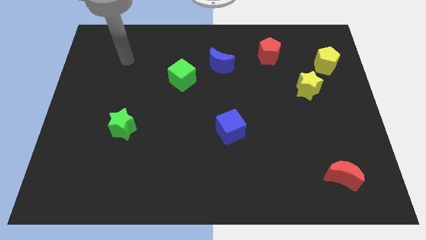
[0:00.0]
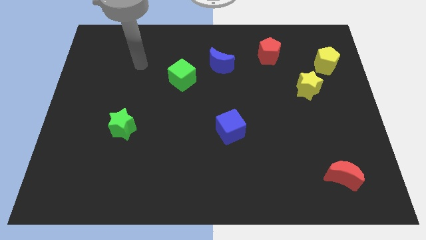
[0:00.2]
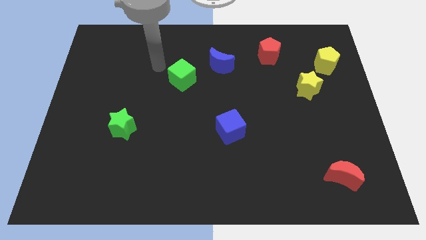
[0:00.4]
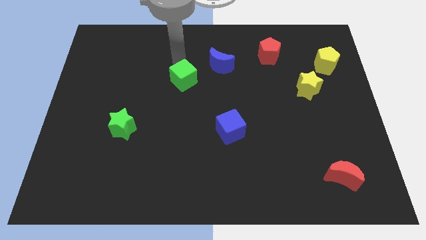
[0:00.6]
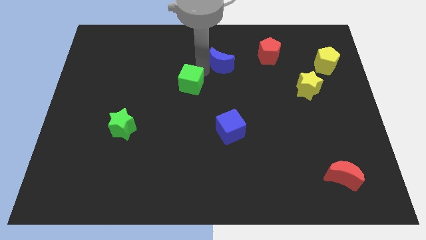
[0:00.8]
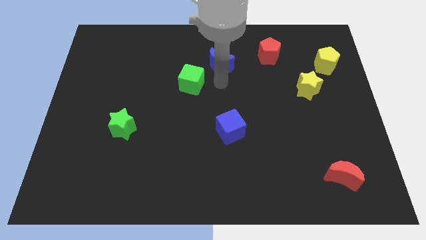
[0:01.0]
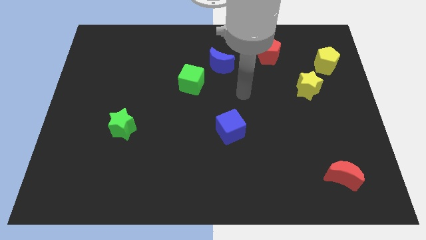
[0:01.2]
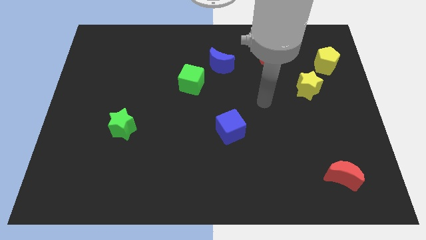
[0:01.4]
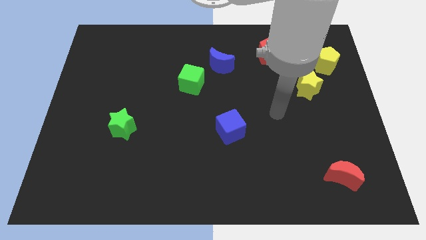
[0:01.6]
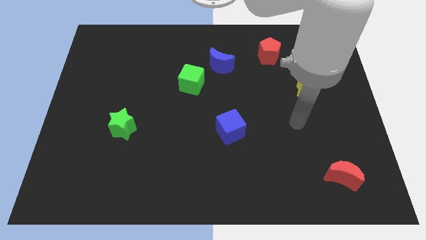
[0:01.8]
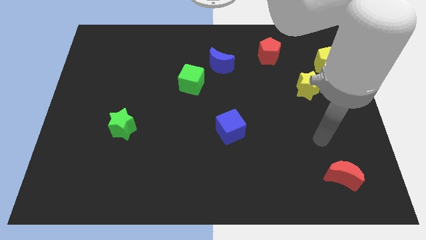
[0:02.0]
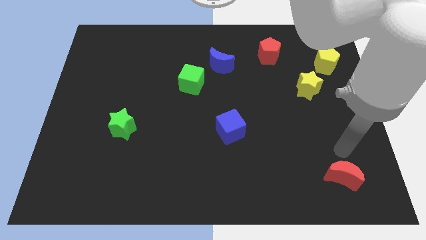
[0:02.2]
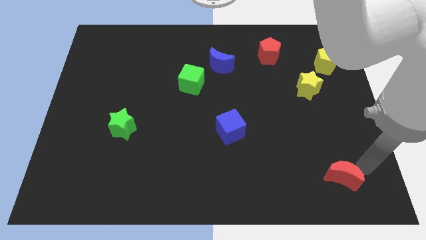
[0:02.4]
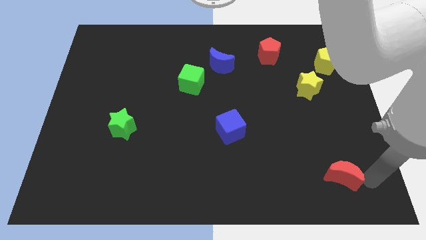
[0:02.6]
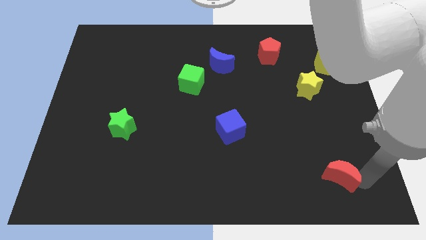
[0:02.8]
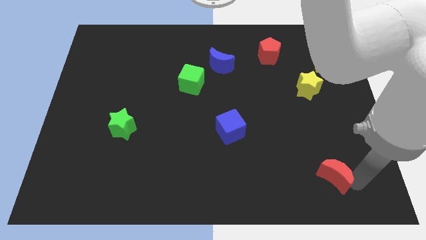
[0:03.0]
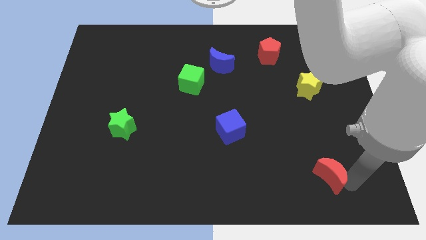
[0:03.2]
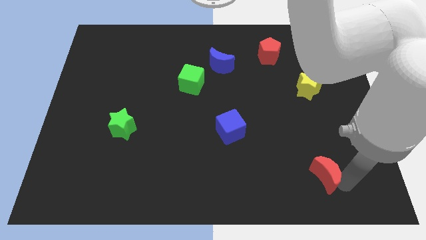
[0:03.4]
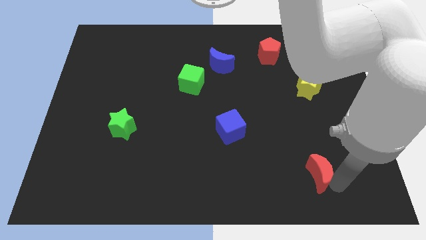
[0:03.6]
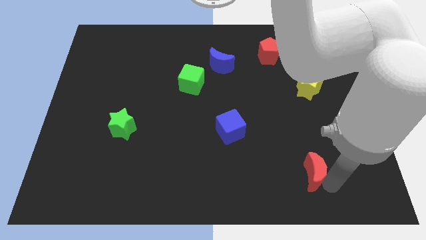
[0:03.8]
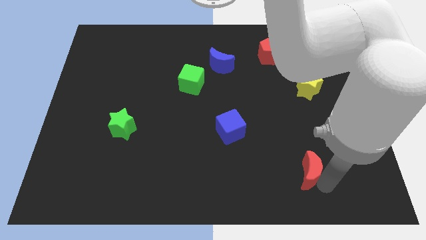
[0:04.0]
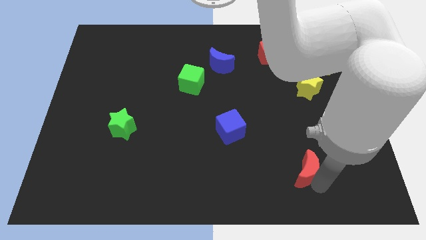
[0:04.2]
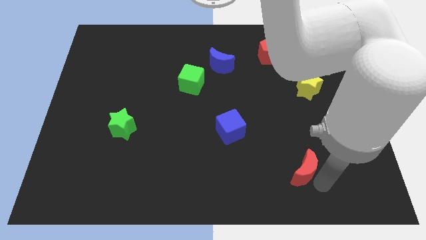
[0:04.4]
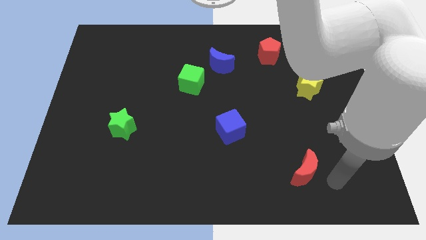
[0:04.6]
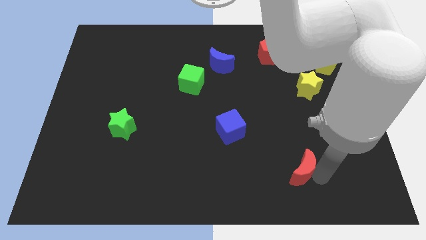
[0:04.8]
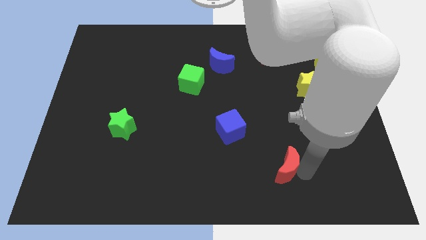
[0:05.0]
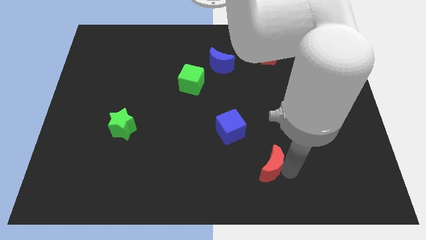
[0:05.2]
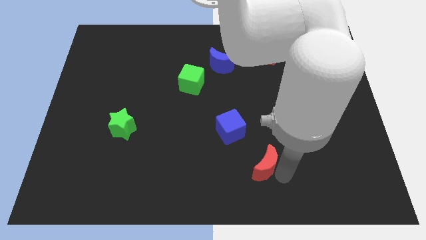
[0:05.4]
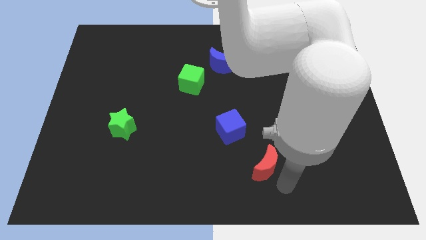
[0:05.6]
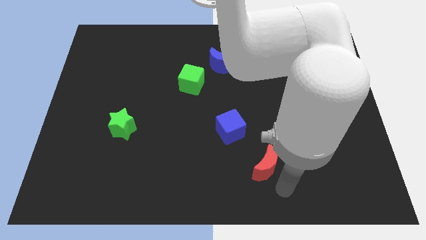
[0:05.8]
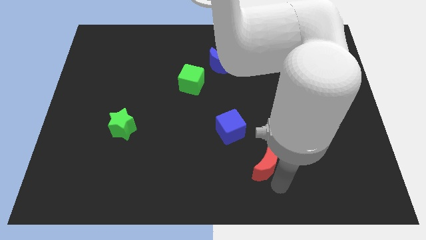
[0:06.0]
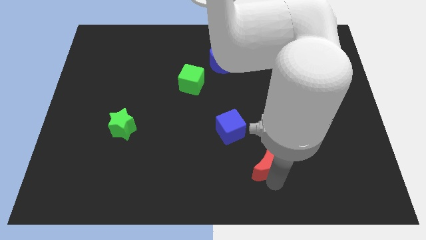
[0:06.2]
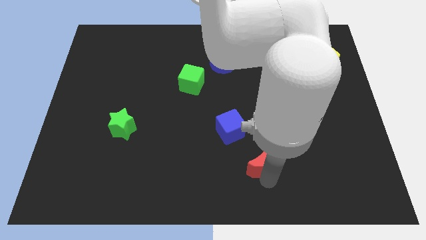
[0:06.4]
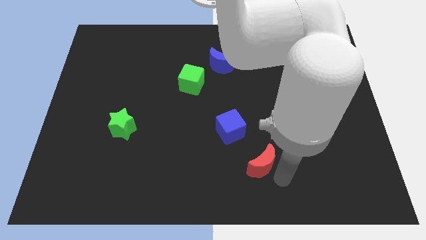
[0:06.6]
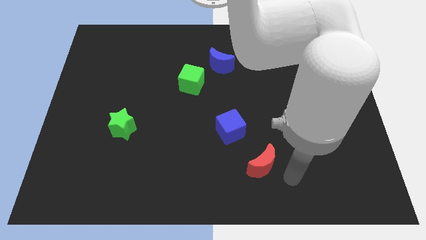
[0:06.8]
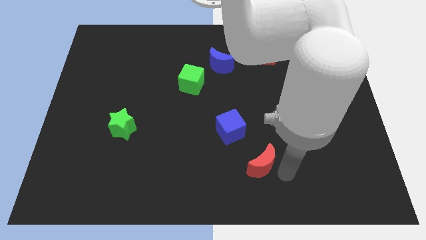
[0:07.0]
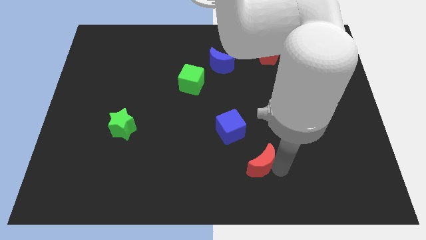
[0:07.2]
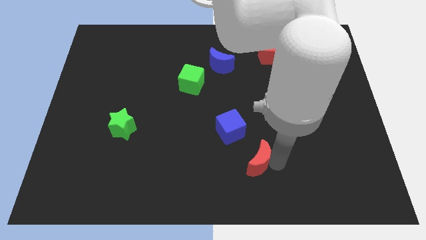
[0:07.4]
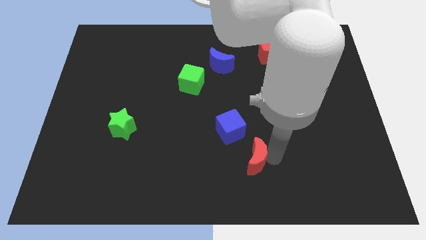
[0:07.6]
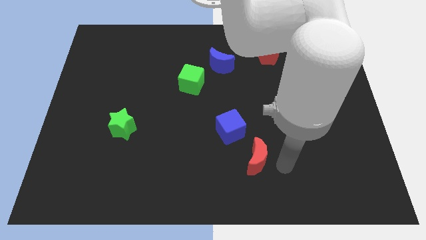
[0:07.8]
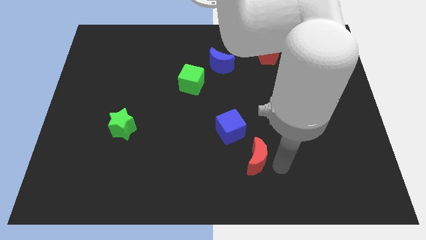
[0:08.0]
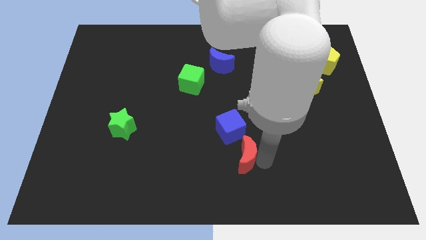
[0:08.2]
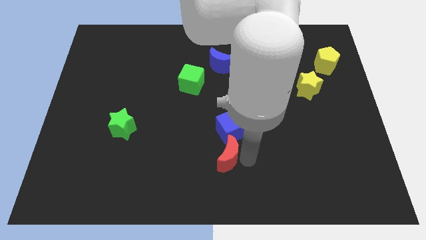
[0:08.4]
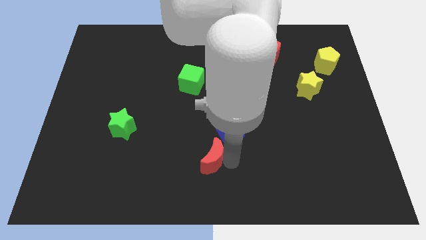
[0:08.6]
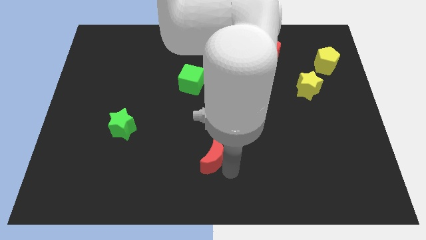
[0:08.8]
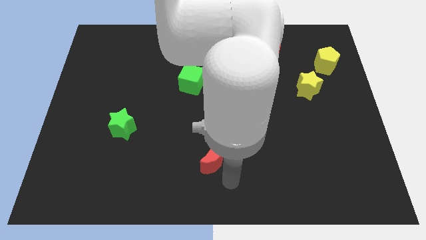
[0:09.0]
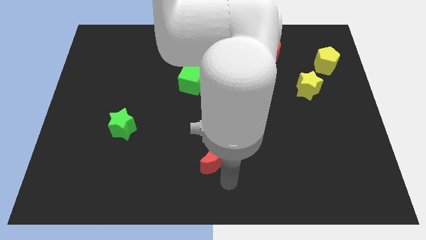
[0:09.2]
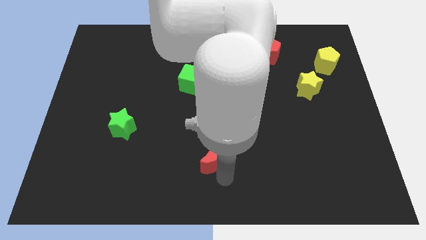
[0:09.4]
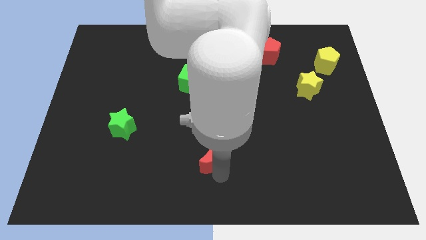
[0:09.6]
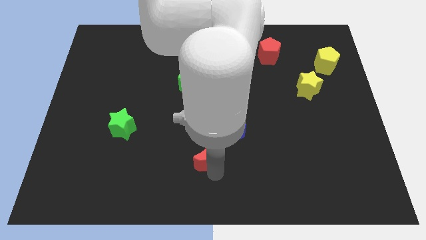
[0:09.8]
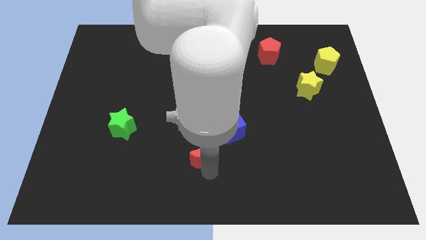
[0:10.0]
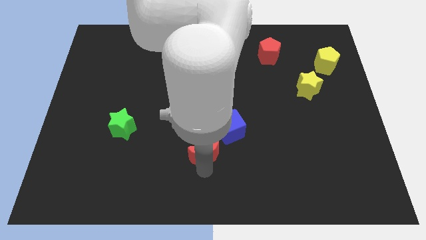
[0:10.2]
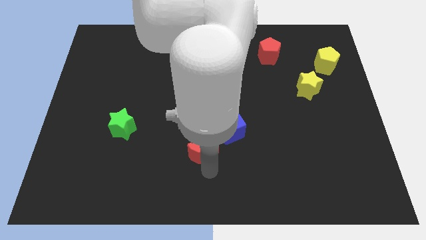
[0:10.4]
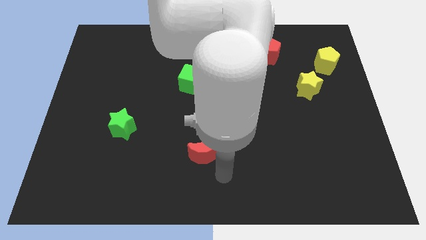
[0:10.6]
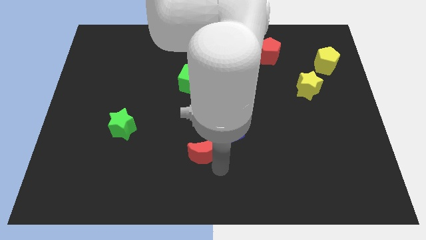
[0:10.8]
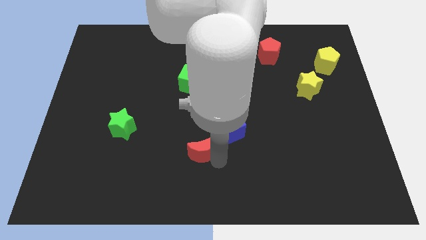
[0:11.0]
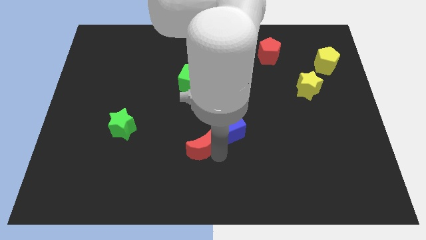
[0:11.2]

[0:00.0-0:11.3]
slide the red moon left of the blue cube

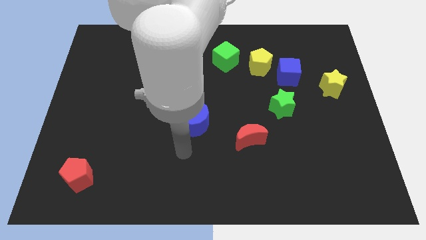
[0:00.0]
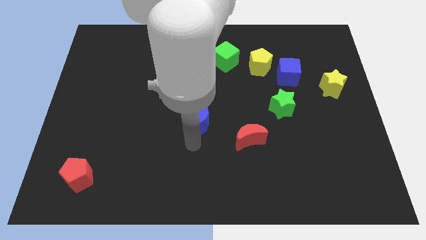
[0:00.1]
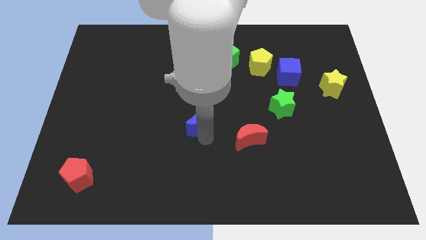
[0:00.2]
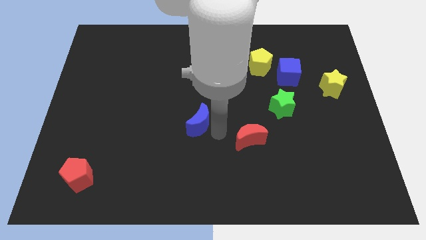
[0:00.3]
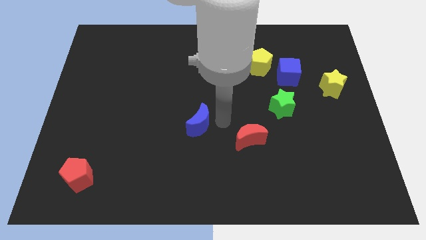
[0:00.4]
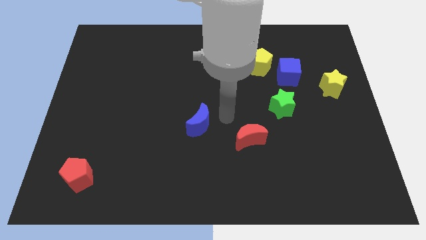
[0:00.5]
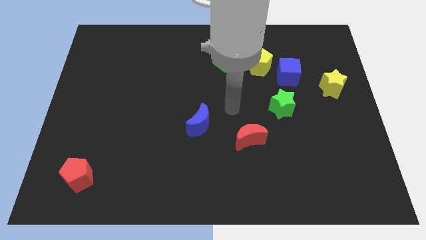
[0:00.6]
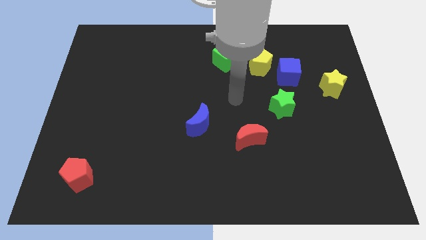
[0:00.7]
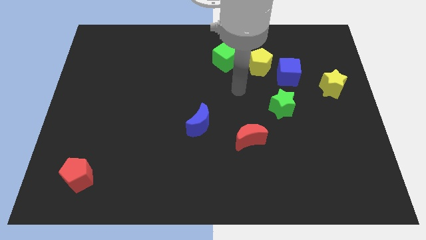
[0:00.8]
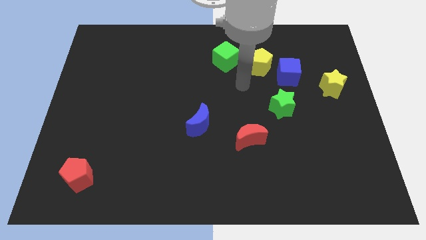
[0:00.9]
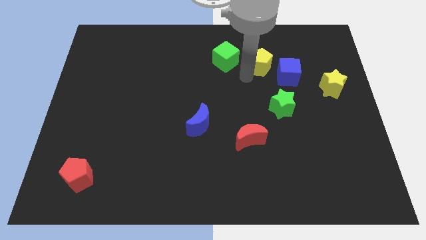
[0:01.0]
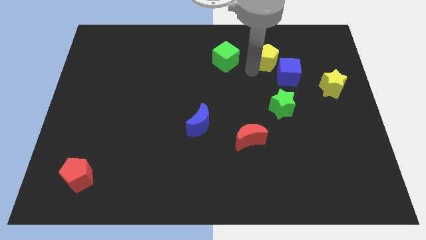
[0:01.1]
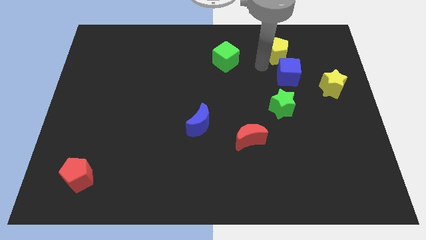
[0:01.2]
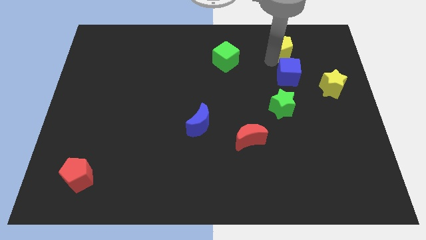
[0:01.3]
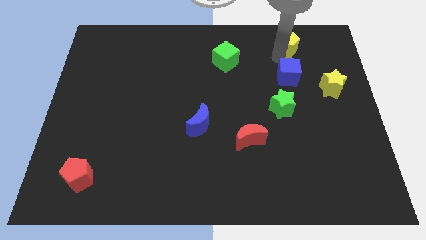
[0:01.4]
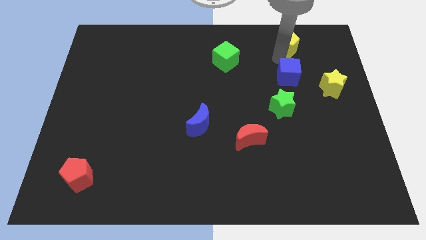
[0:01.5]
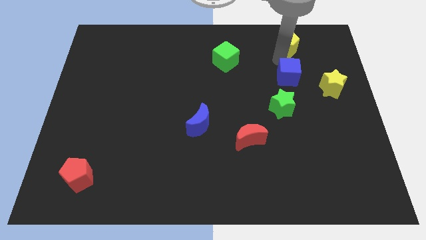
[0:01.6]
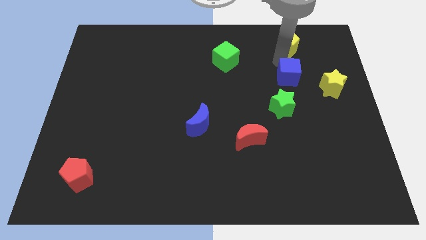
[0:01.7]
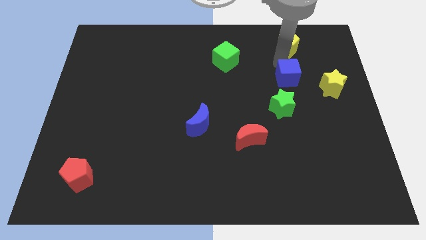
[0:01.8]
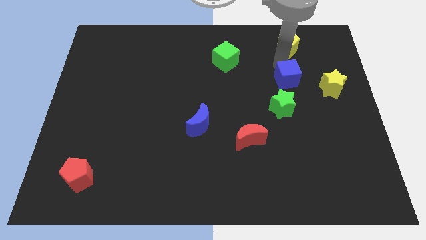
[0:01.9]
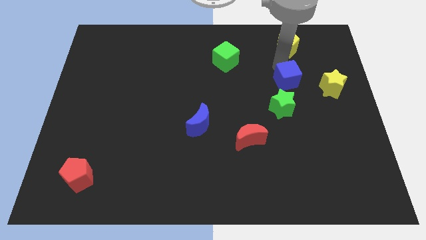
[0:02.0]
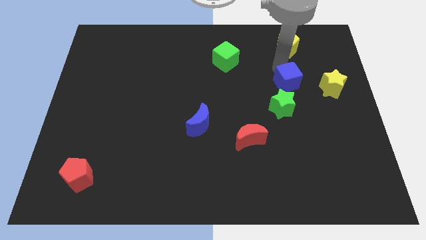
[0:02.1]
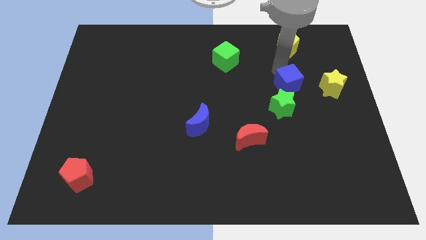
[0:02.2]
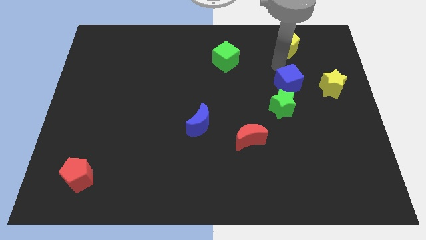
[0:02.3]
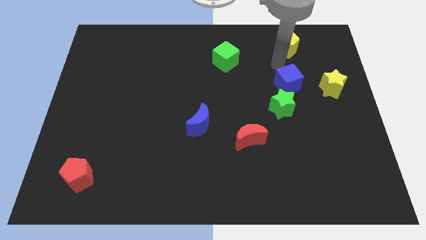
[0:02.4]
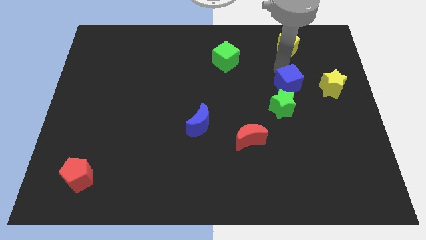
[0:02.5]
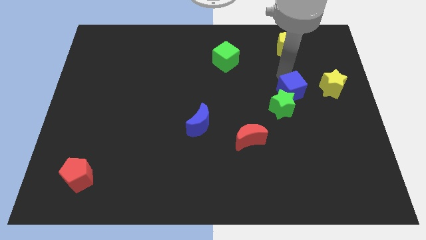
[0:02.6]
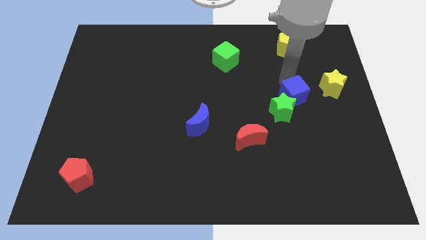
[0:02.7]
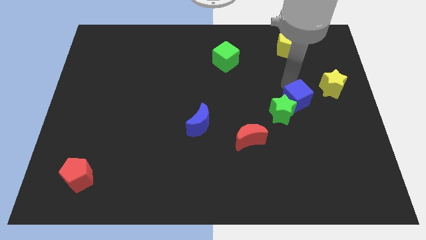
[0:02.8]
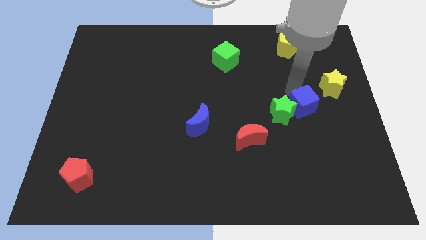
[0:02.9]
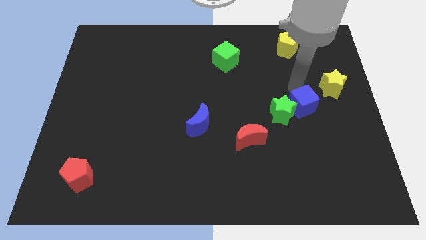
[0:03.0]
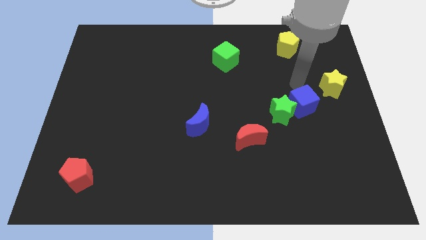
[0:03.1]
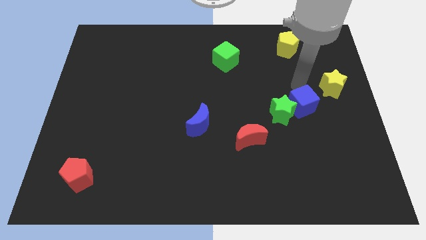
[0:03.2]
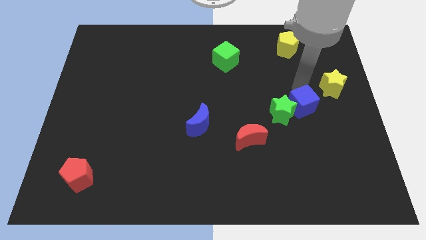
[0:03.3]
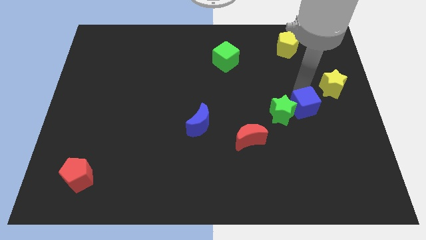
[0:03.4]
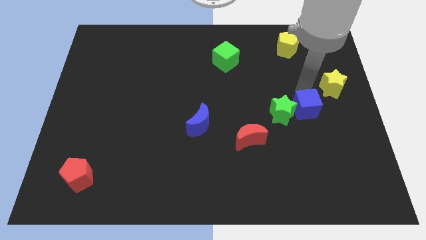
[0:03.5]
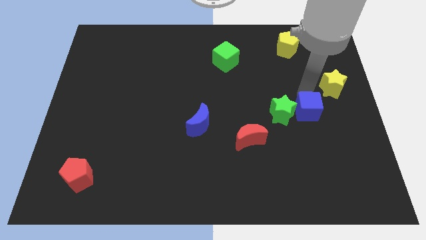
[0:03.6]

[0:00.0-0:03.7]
push the blue cube to the bottom right of the green star
